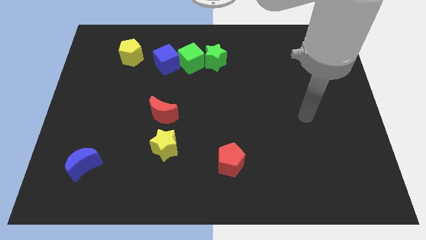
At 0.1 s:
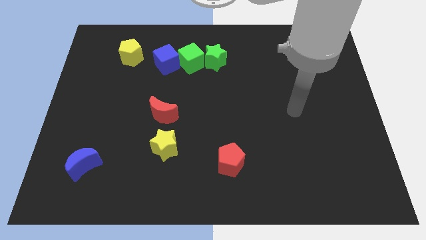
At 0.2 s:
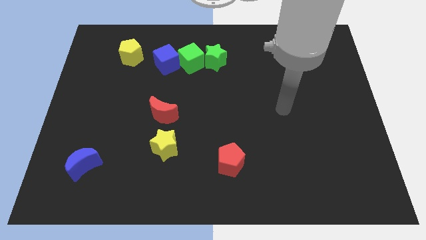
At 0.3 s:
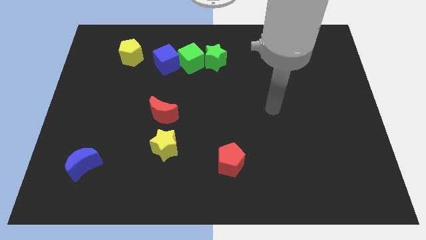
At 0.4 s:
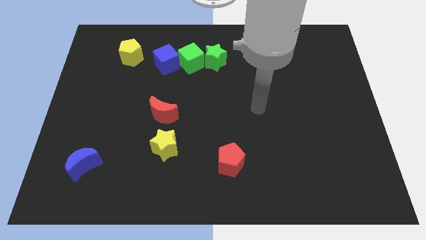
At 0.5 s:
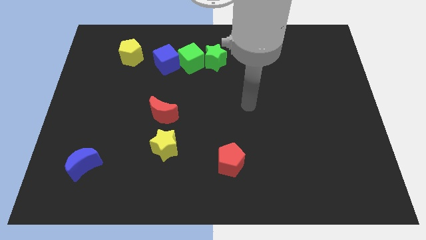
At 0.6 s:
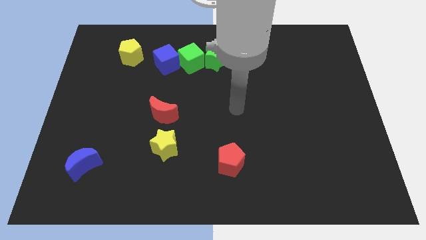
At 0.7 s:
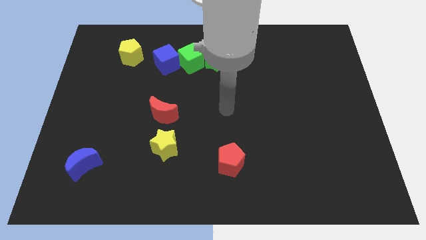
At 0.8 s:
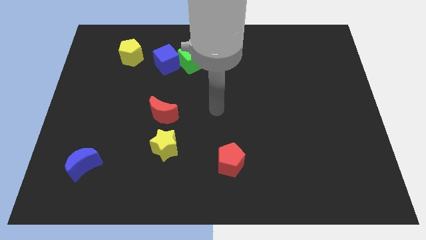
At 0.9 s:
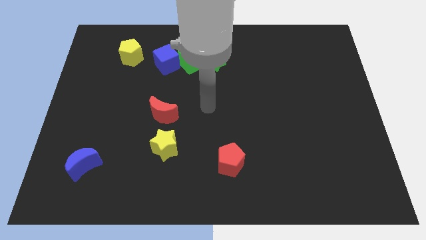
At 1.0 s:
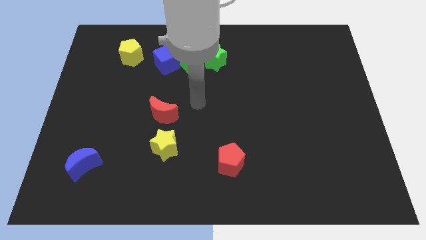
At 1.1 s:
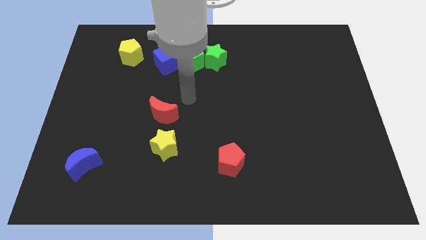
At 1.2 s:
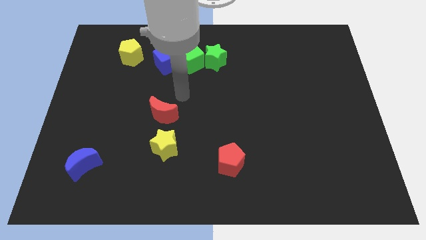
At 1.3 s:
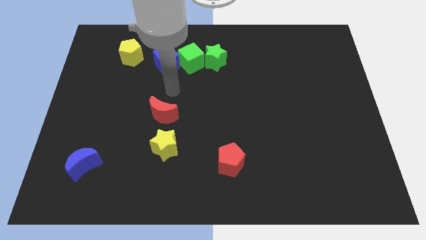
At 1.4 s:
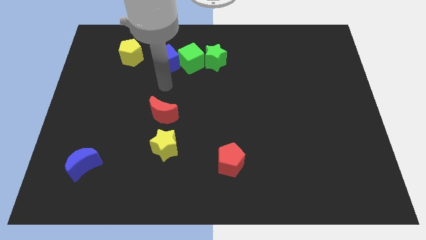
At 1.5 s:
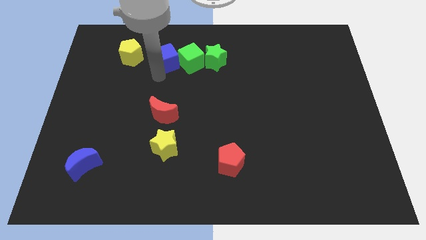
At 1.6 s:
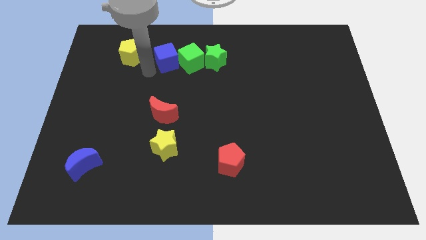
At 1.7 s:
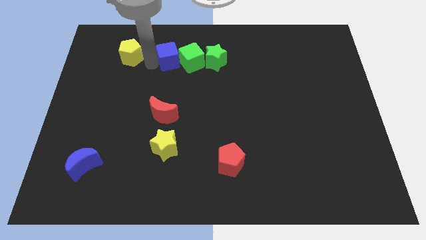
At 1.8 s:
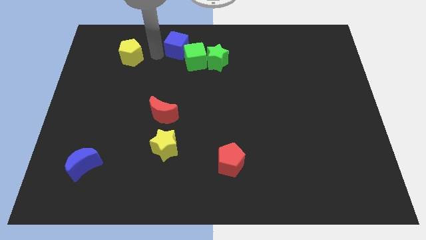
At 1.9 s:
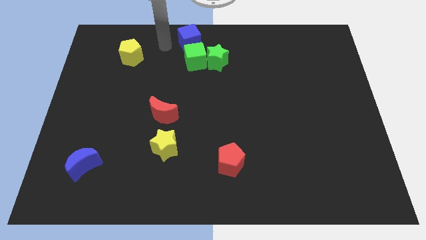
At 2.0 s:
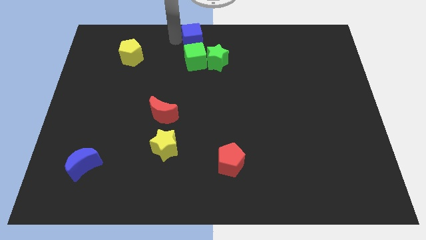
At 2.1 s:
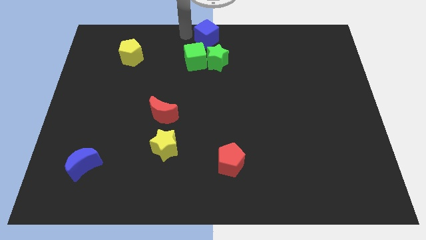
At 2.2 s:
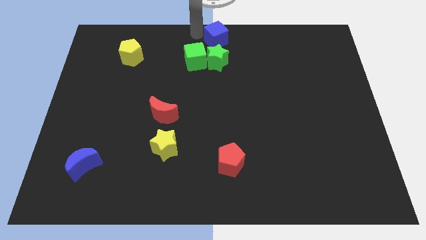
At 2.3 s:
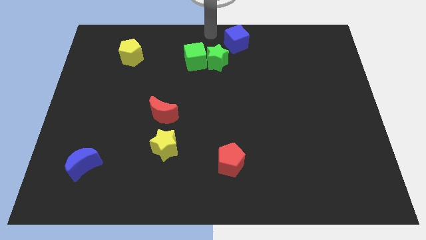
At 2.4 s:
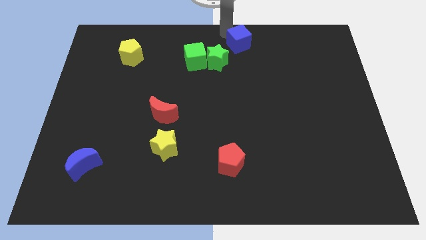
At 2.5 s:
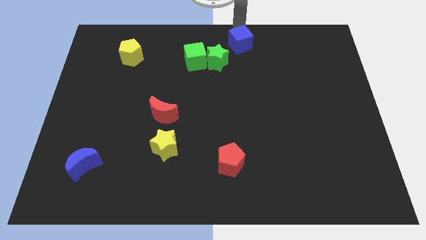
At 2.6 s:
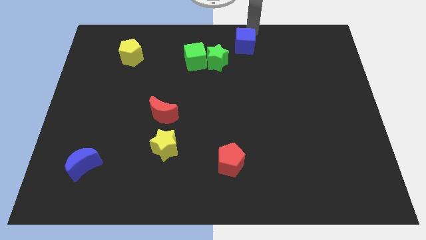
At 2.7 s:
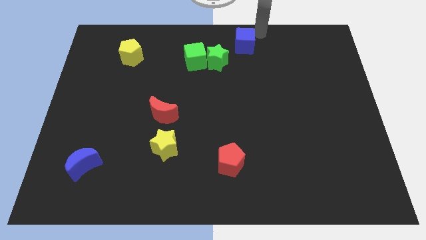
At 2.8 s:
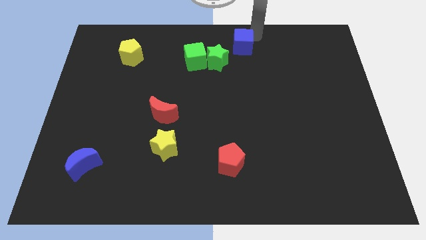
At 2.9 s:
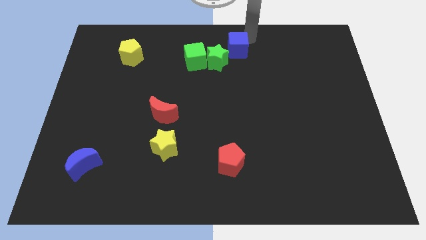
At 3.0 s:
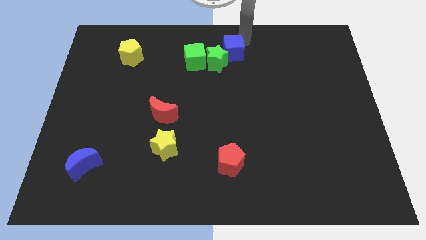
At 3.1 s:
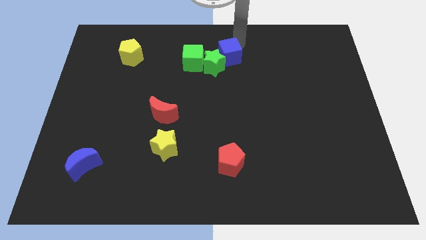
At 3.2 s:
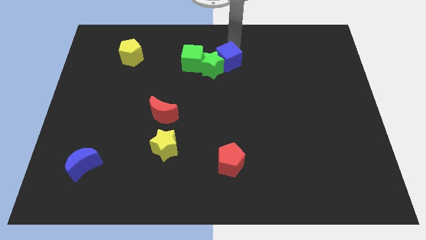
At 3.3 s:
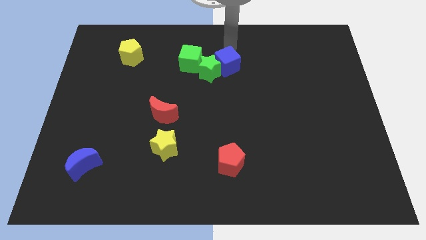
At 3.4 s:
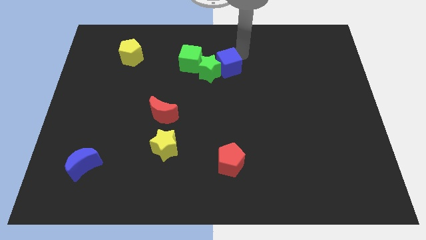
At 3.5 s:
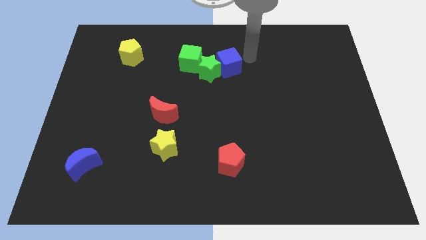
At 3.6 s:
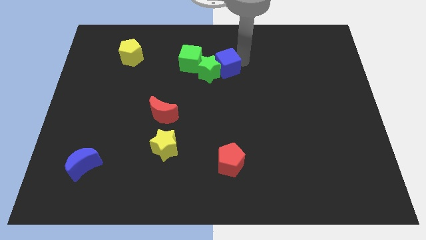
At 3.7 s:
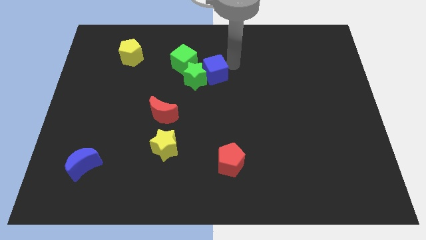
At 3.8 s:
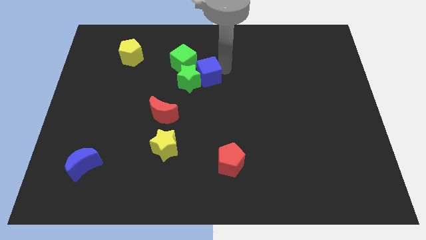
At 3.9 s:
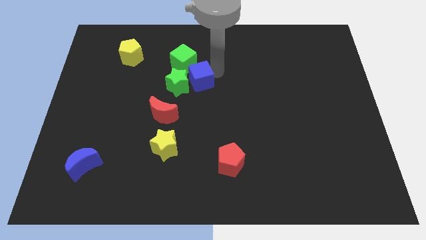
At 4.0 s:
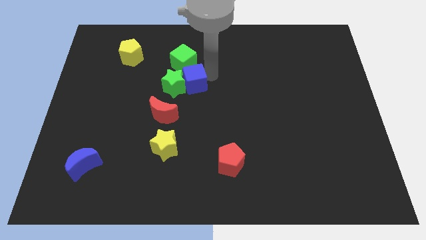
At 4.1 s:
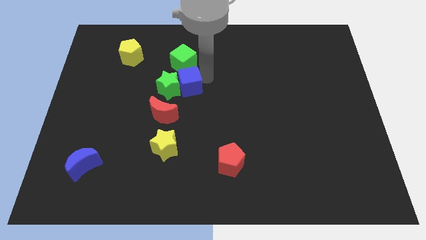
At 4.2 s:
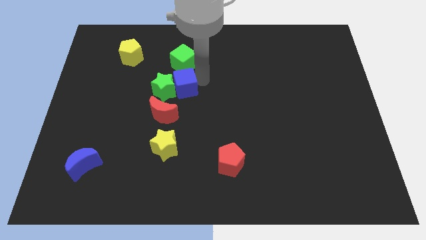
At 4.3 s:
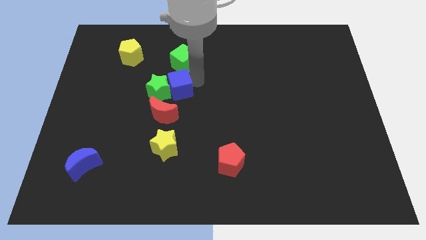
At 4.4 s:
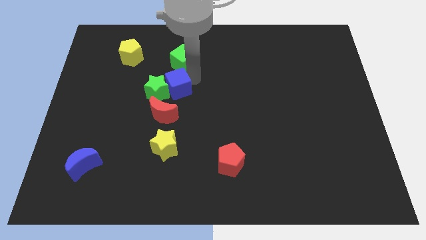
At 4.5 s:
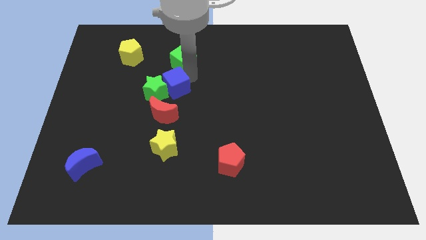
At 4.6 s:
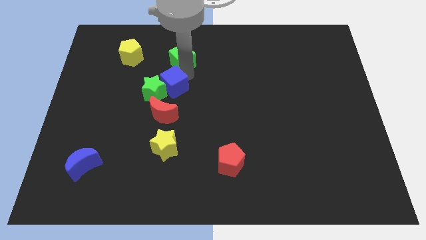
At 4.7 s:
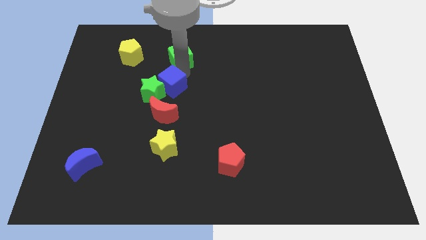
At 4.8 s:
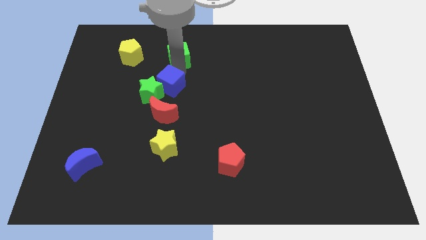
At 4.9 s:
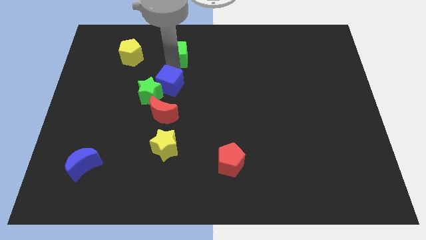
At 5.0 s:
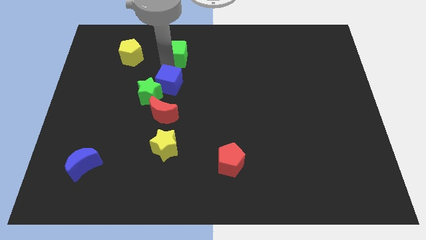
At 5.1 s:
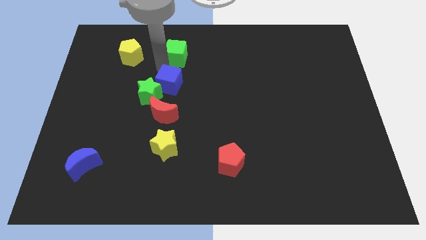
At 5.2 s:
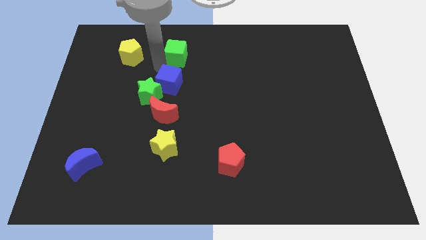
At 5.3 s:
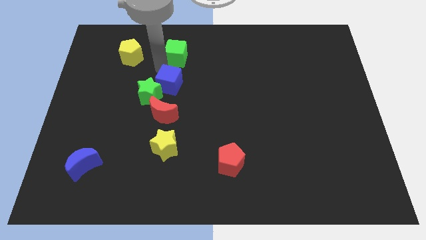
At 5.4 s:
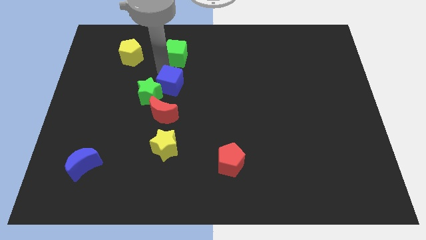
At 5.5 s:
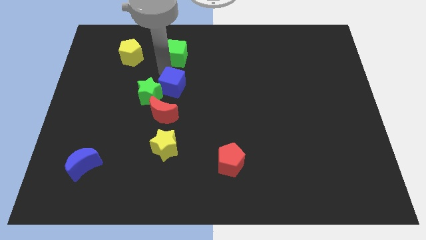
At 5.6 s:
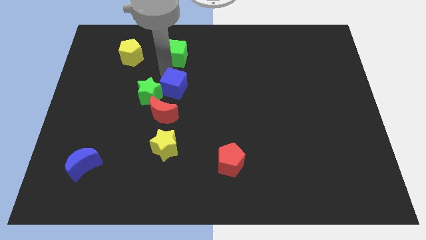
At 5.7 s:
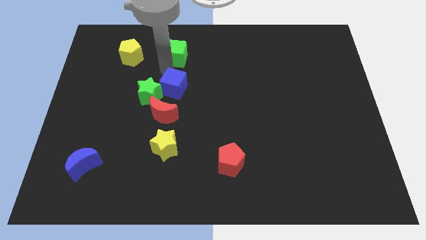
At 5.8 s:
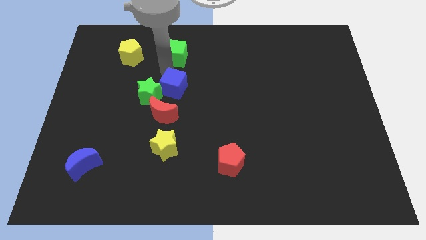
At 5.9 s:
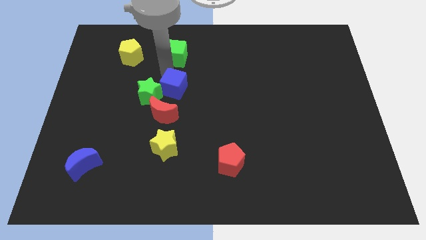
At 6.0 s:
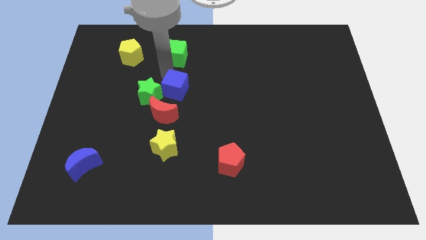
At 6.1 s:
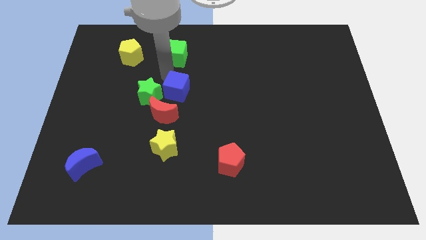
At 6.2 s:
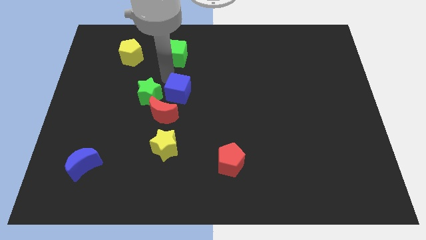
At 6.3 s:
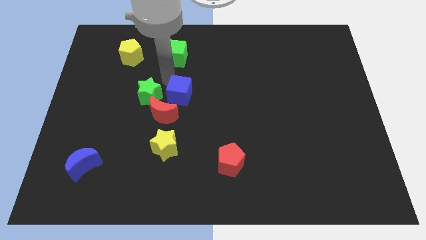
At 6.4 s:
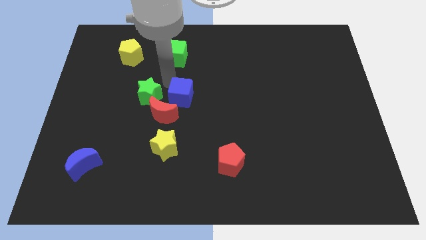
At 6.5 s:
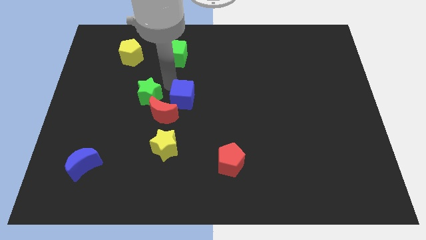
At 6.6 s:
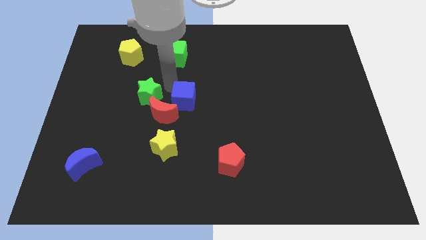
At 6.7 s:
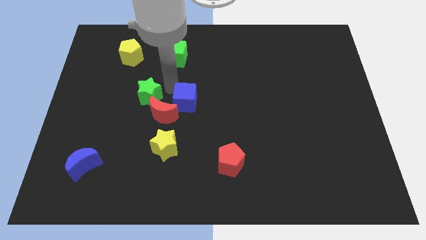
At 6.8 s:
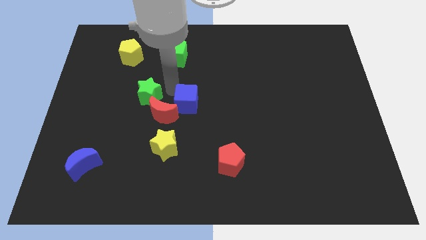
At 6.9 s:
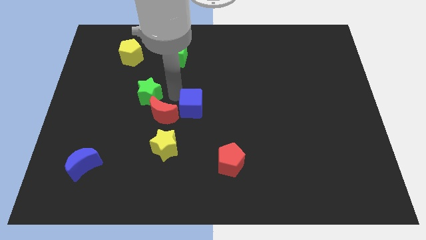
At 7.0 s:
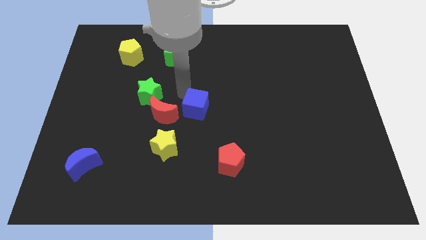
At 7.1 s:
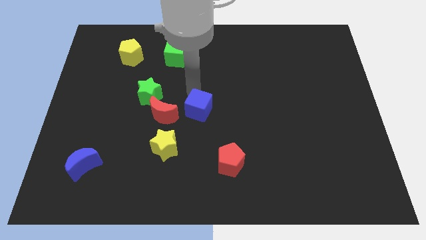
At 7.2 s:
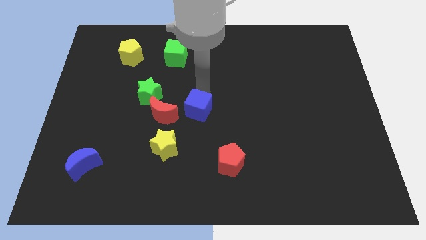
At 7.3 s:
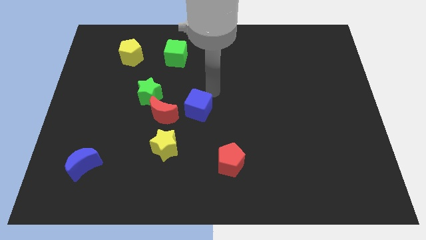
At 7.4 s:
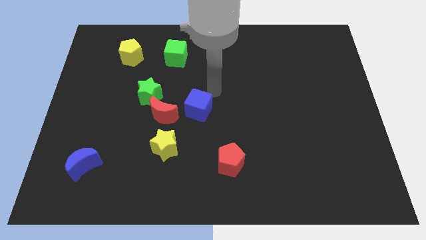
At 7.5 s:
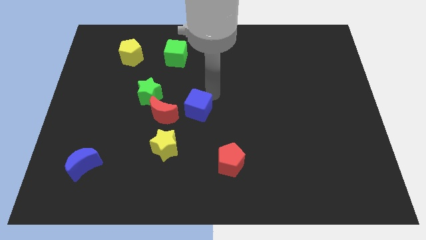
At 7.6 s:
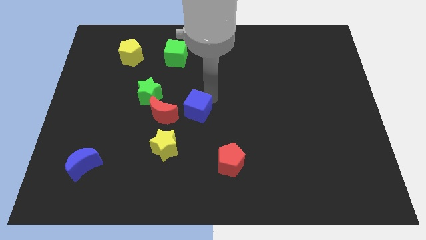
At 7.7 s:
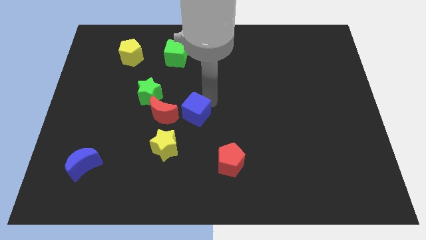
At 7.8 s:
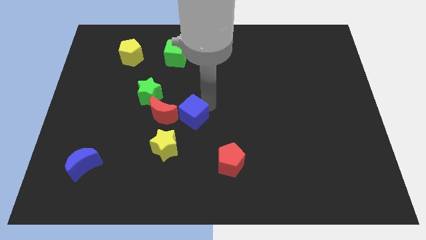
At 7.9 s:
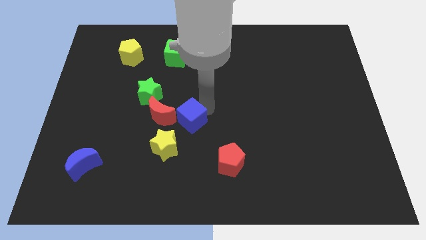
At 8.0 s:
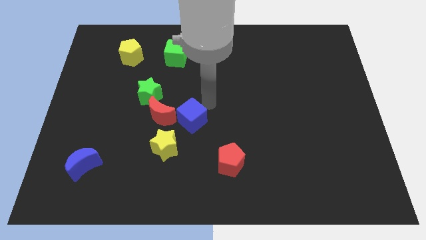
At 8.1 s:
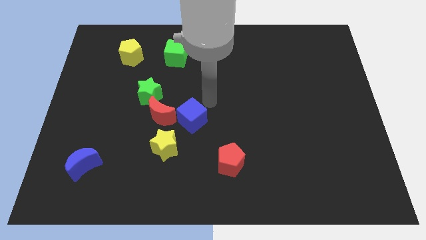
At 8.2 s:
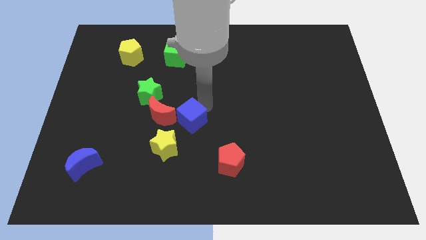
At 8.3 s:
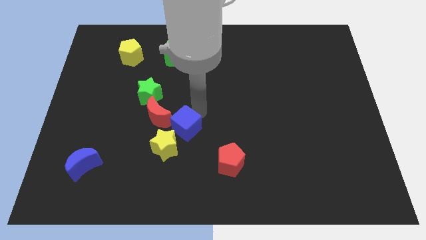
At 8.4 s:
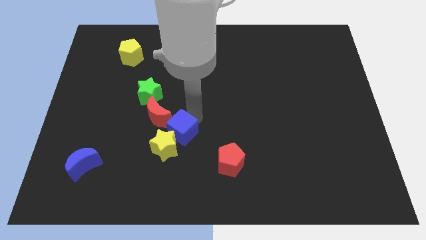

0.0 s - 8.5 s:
push the blue cube next to the yellow star
